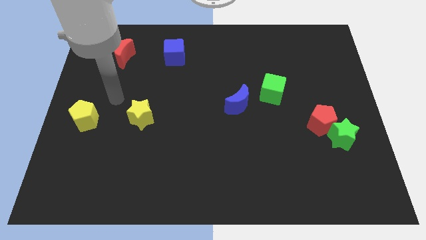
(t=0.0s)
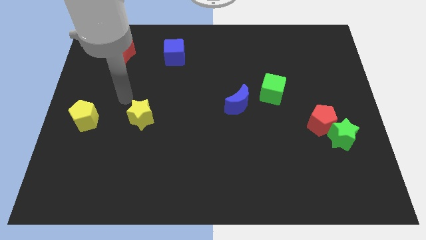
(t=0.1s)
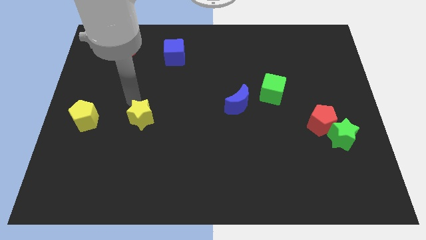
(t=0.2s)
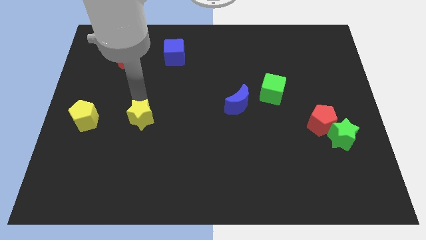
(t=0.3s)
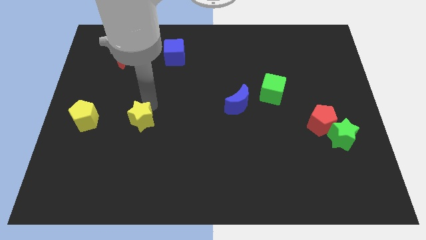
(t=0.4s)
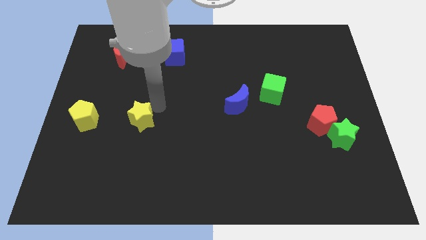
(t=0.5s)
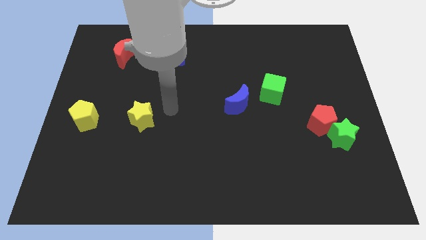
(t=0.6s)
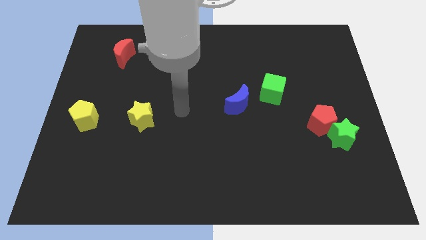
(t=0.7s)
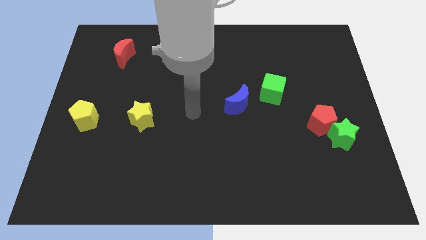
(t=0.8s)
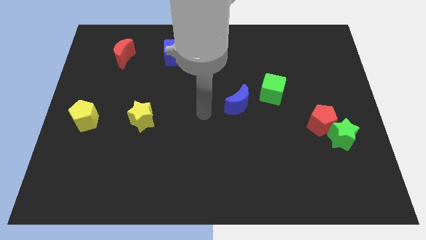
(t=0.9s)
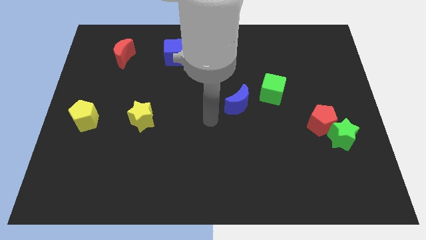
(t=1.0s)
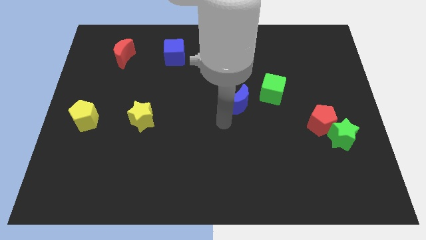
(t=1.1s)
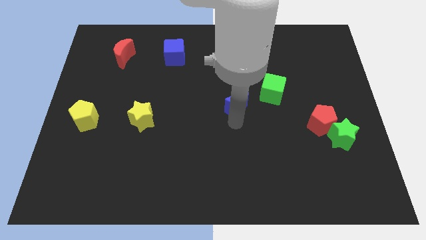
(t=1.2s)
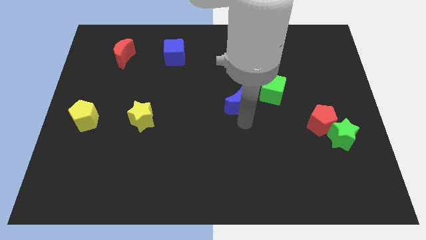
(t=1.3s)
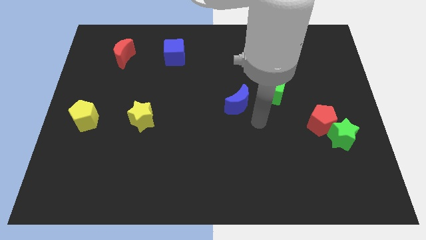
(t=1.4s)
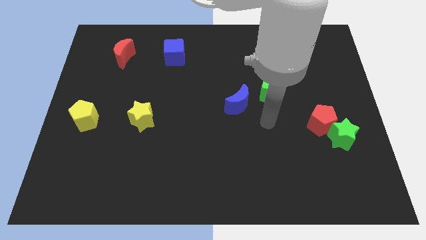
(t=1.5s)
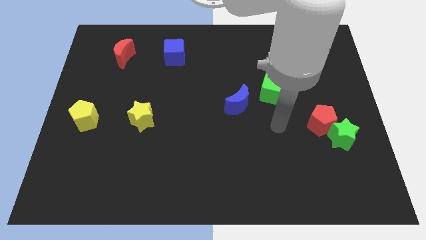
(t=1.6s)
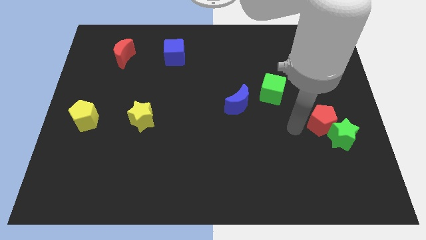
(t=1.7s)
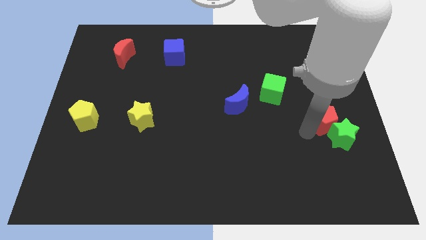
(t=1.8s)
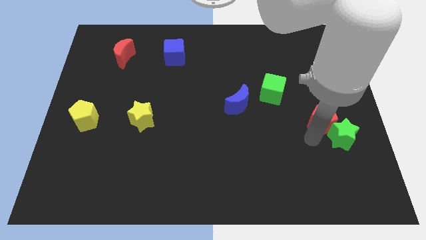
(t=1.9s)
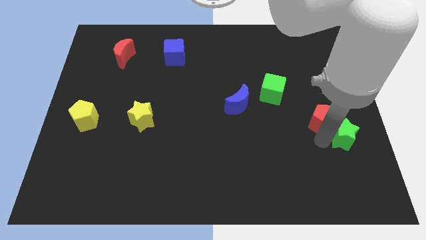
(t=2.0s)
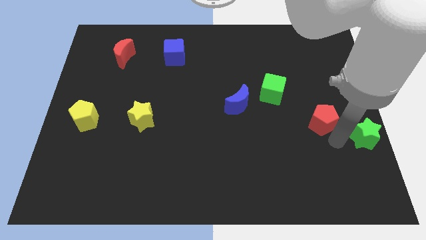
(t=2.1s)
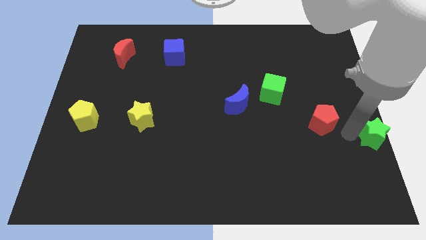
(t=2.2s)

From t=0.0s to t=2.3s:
separate the red pentagon from the green star

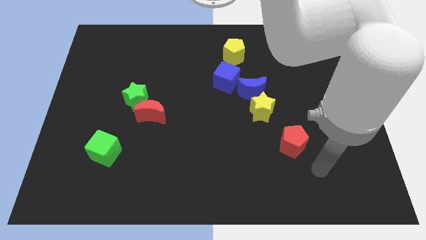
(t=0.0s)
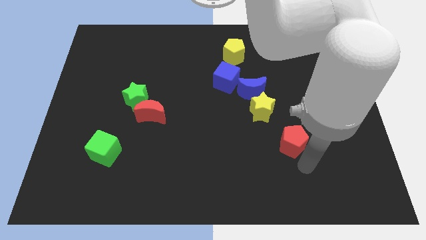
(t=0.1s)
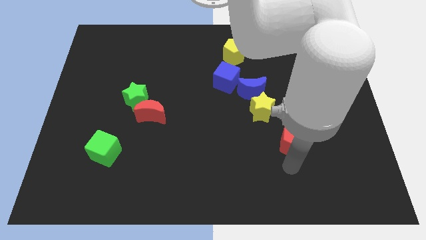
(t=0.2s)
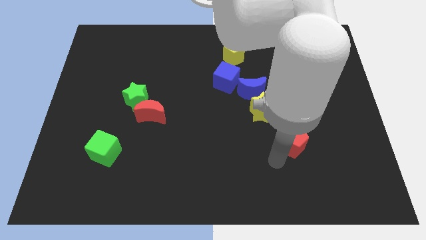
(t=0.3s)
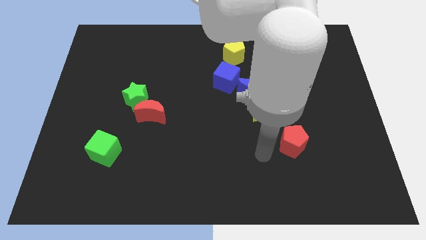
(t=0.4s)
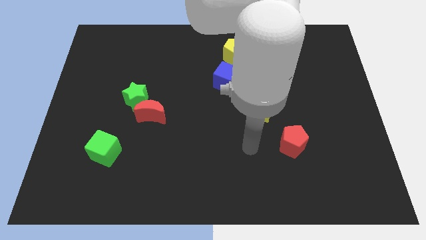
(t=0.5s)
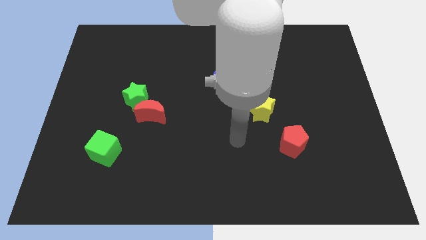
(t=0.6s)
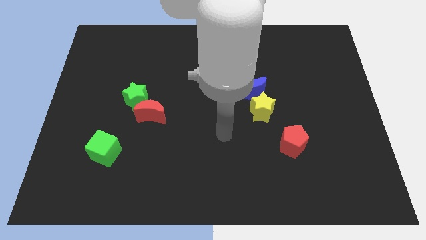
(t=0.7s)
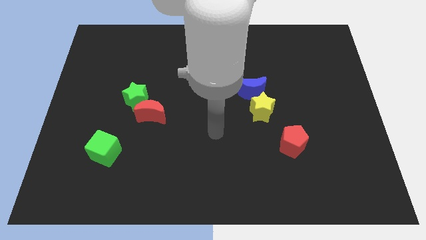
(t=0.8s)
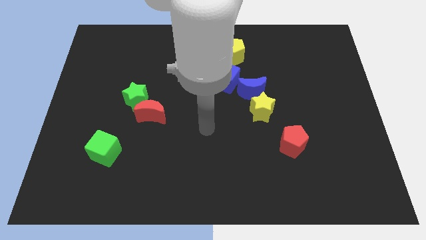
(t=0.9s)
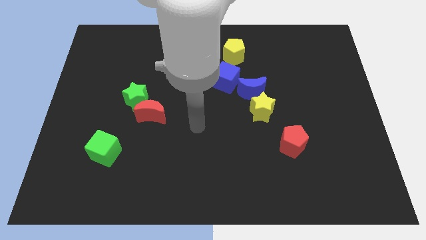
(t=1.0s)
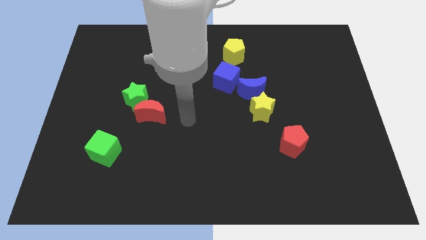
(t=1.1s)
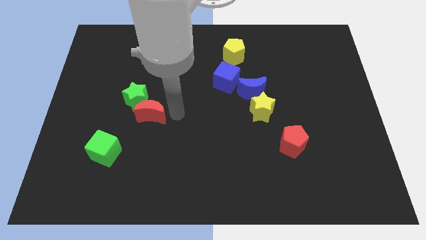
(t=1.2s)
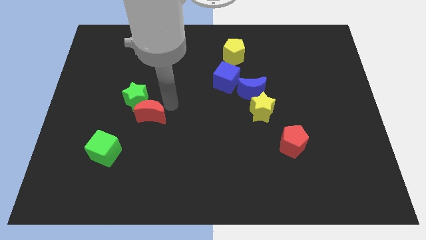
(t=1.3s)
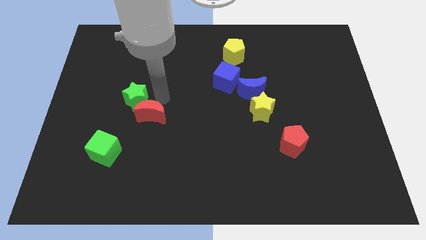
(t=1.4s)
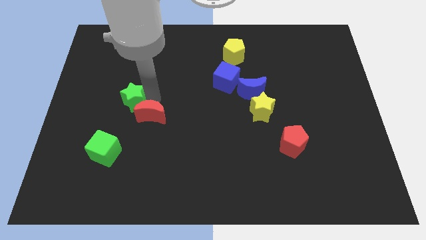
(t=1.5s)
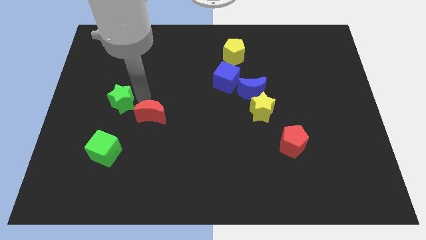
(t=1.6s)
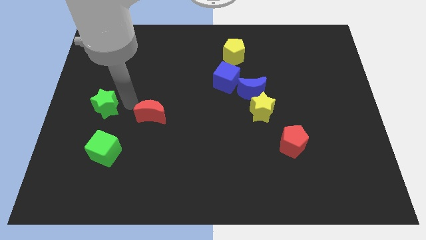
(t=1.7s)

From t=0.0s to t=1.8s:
separate the red moon from the green star

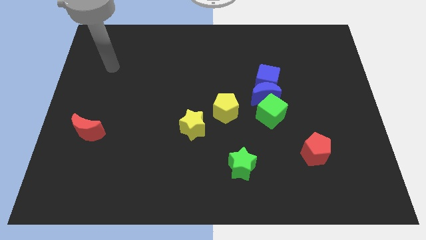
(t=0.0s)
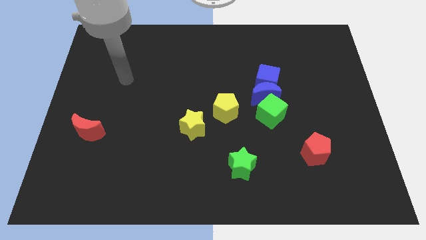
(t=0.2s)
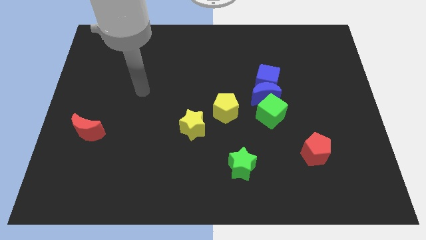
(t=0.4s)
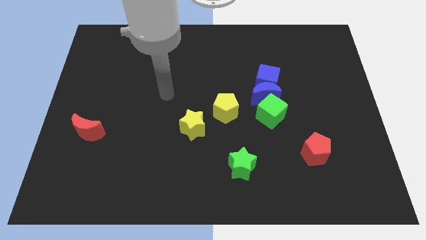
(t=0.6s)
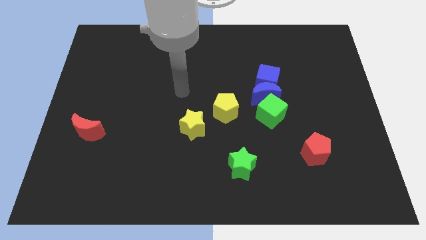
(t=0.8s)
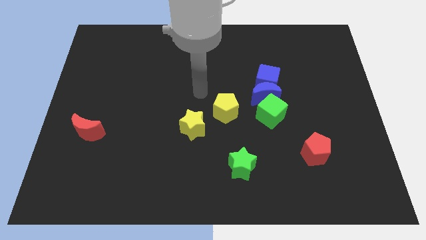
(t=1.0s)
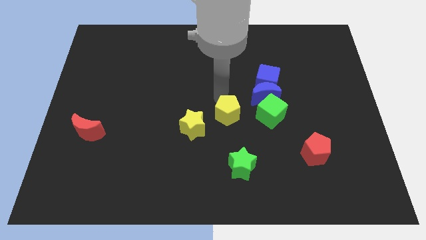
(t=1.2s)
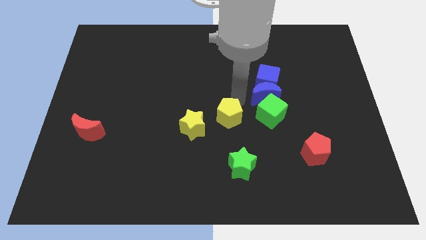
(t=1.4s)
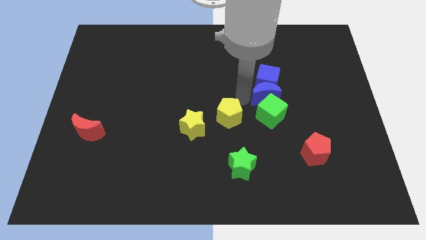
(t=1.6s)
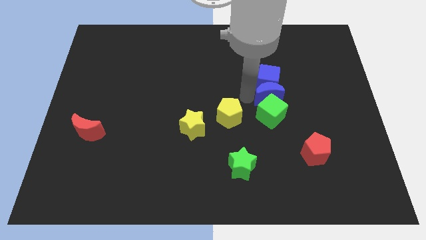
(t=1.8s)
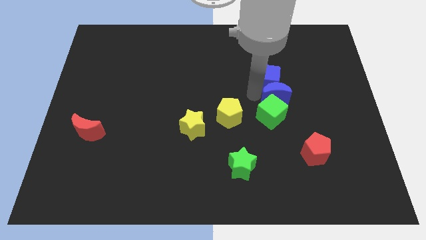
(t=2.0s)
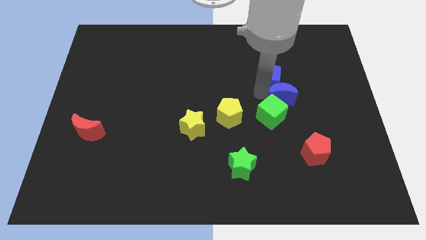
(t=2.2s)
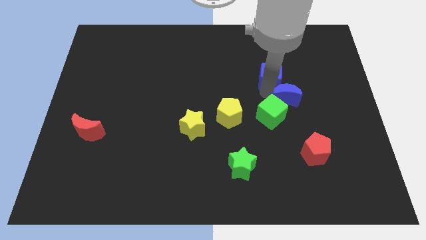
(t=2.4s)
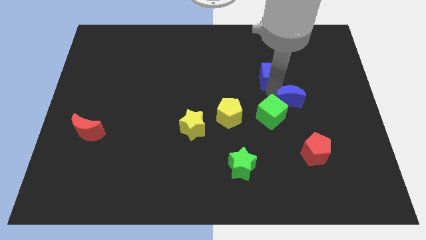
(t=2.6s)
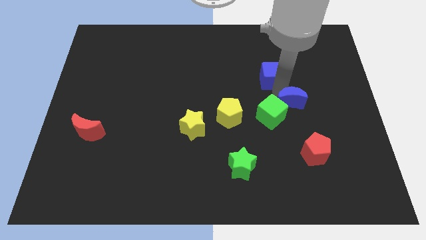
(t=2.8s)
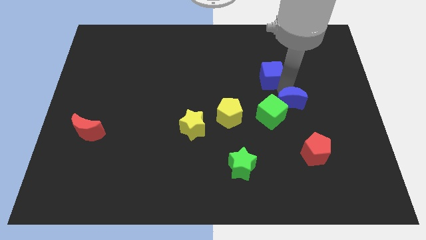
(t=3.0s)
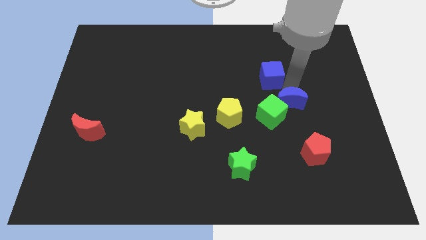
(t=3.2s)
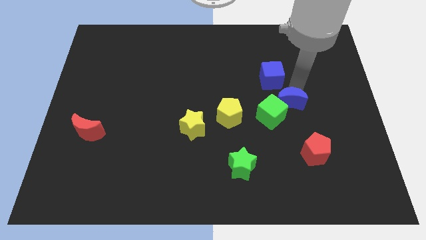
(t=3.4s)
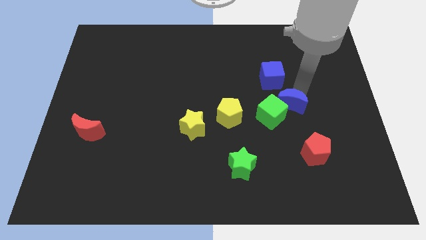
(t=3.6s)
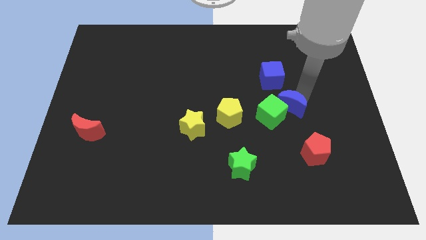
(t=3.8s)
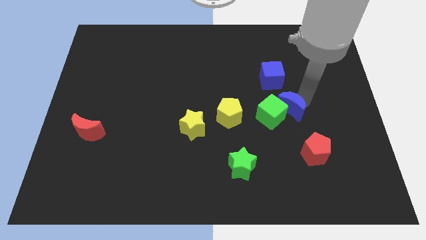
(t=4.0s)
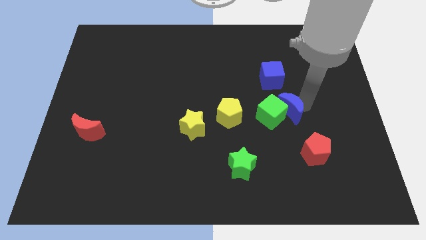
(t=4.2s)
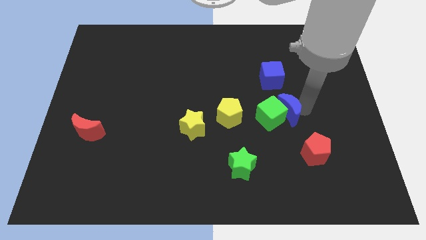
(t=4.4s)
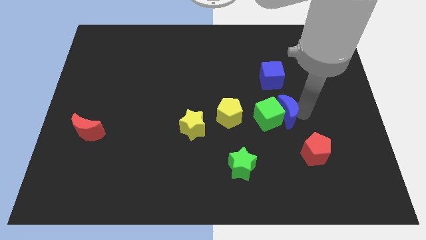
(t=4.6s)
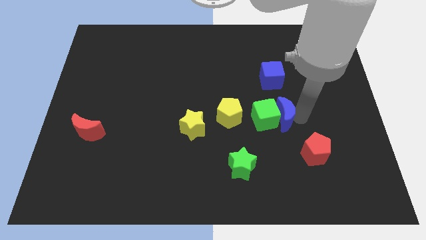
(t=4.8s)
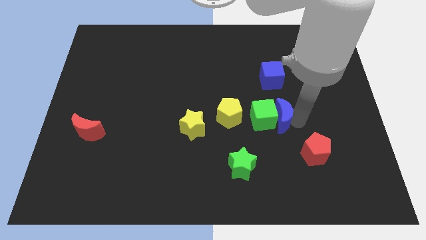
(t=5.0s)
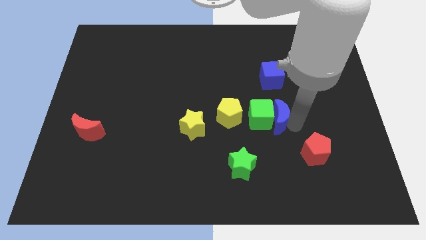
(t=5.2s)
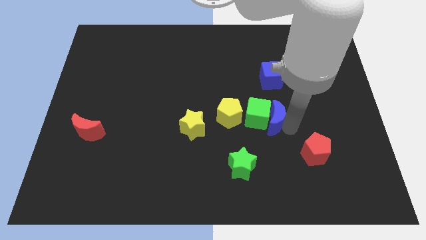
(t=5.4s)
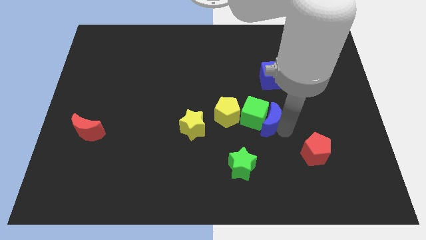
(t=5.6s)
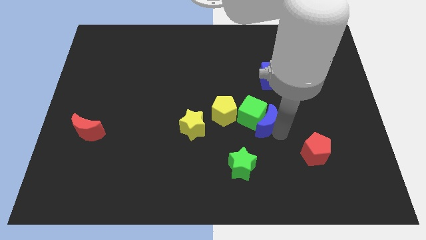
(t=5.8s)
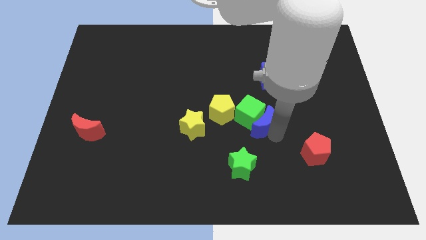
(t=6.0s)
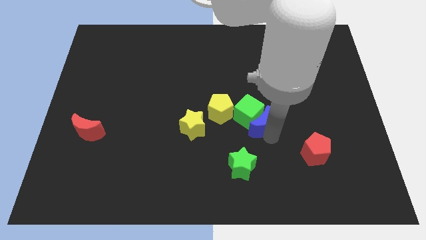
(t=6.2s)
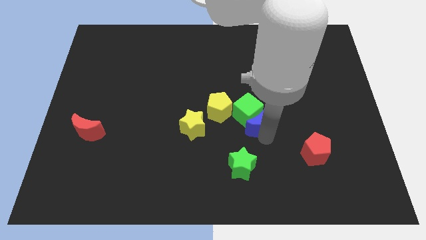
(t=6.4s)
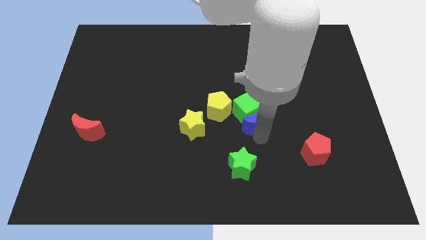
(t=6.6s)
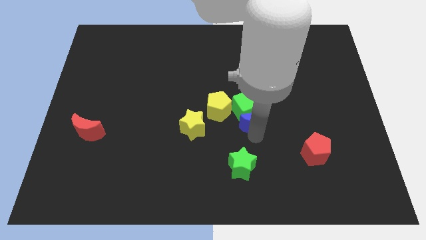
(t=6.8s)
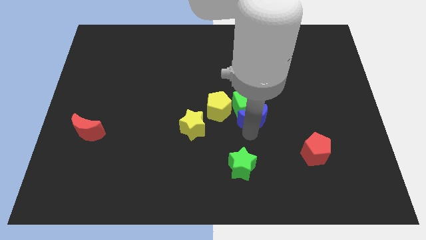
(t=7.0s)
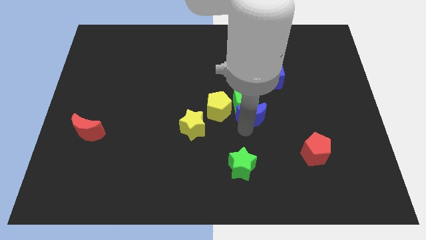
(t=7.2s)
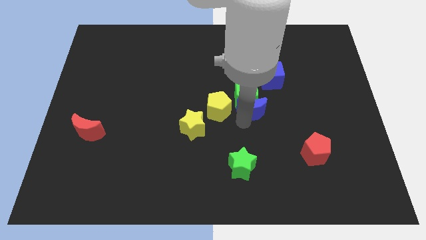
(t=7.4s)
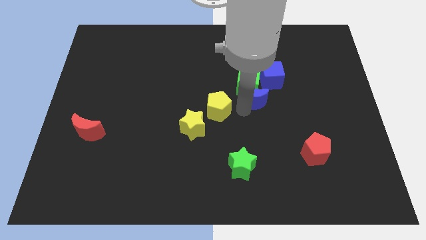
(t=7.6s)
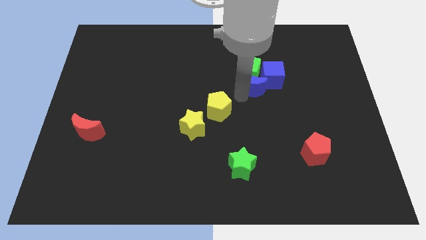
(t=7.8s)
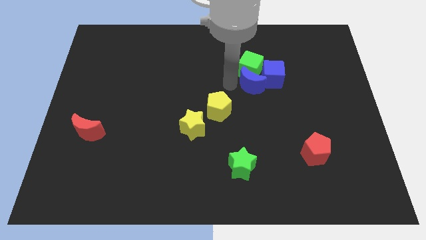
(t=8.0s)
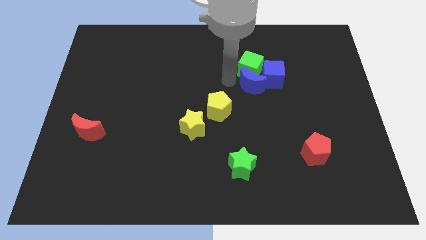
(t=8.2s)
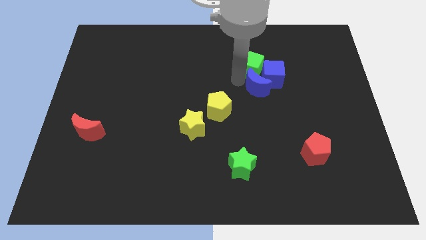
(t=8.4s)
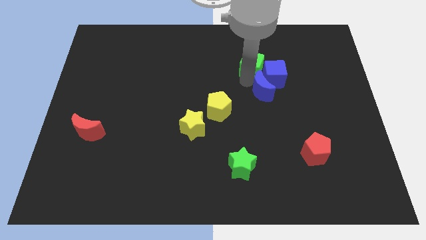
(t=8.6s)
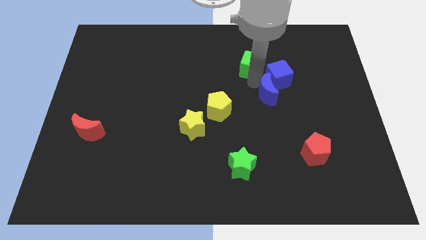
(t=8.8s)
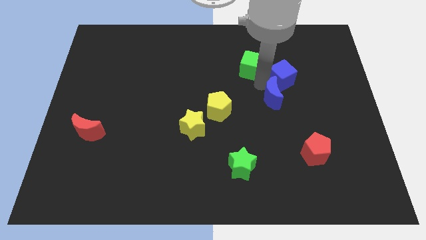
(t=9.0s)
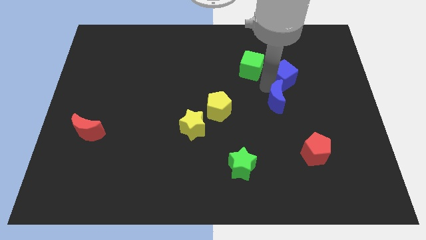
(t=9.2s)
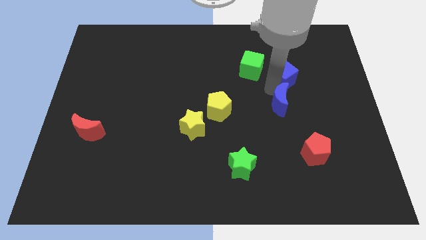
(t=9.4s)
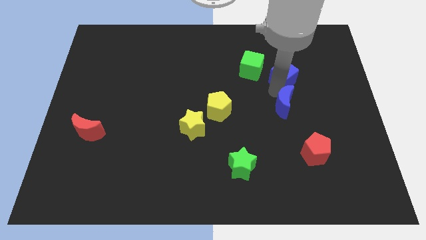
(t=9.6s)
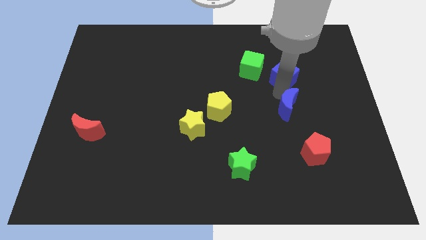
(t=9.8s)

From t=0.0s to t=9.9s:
separate the blue moon from the blue cube, green cube, and yellow pentagon

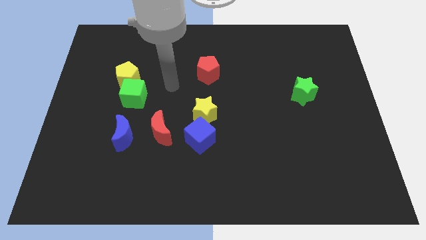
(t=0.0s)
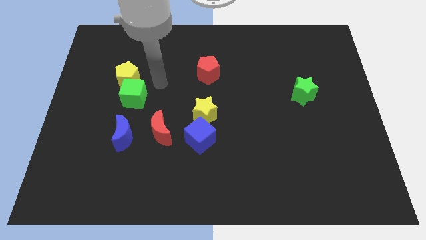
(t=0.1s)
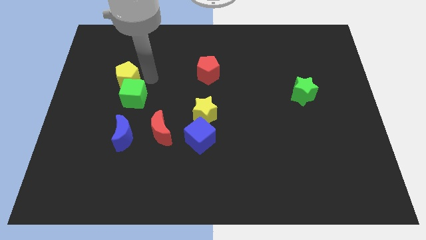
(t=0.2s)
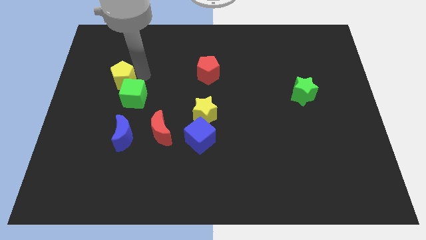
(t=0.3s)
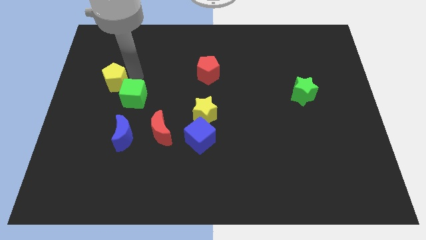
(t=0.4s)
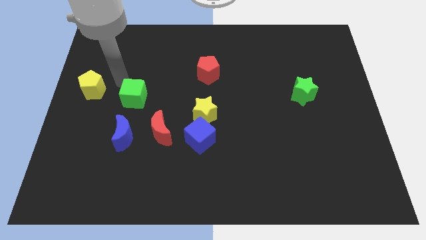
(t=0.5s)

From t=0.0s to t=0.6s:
pull the green cube apart from the yellow pentagon
